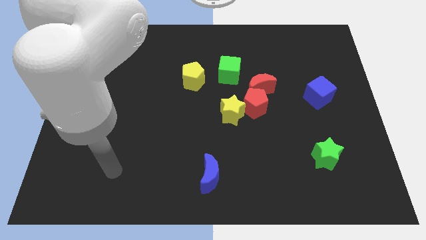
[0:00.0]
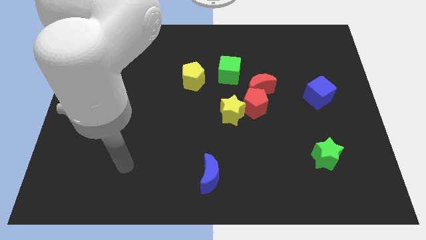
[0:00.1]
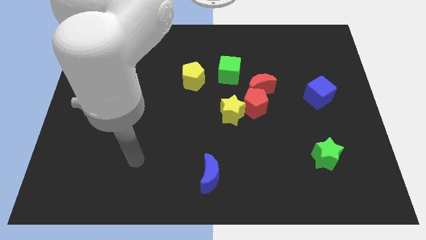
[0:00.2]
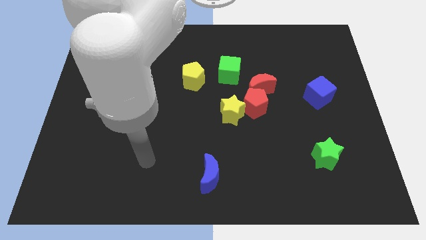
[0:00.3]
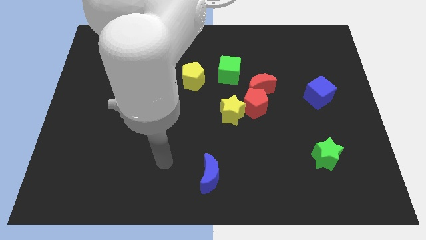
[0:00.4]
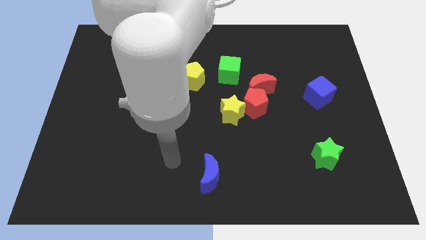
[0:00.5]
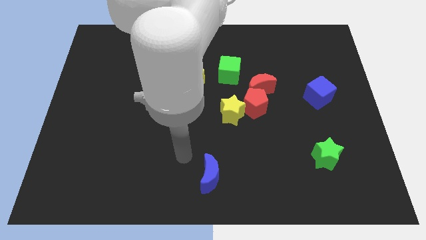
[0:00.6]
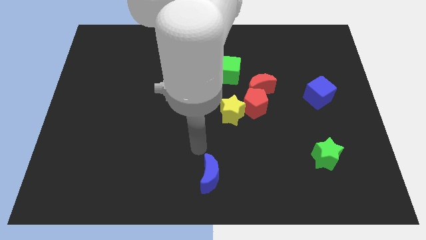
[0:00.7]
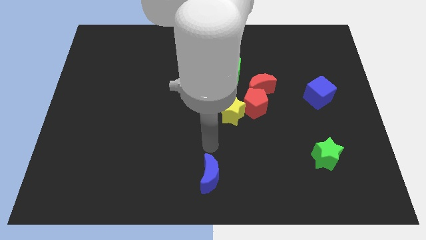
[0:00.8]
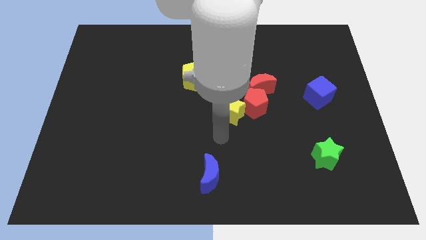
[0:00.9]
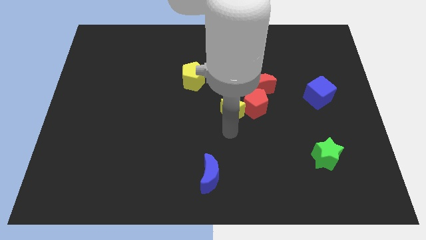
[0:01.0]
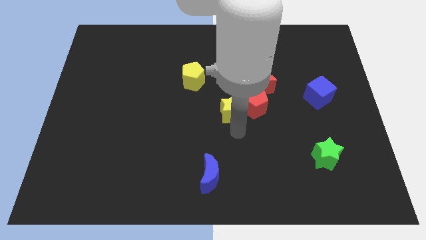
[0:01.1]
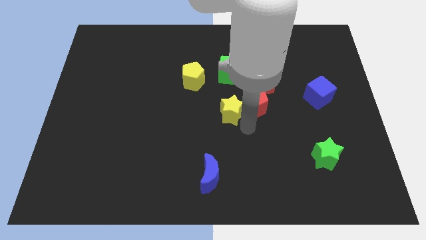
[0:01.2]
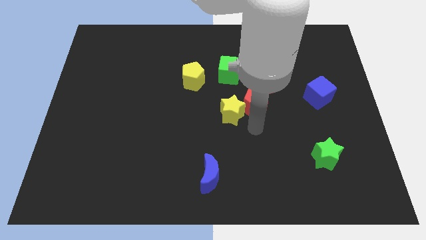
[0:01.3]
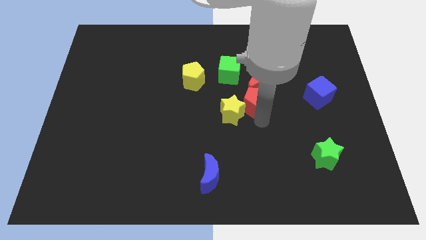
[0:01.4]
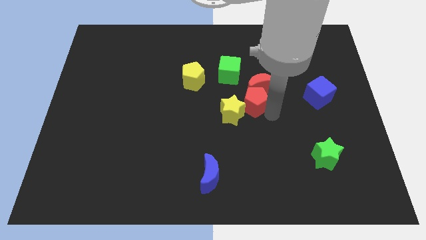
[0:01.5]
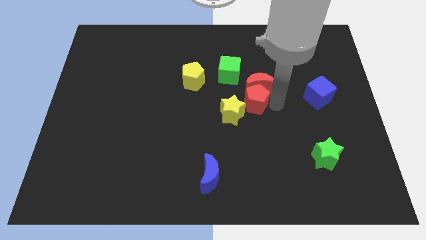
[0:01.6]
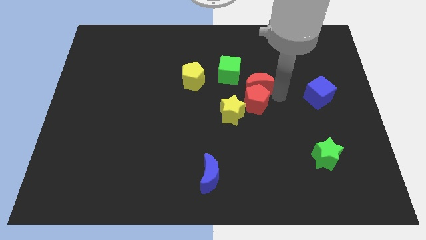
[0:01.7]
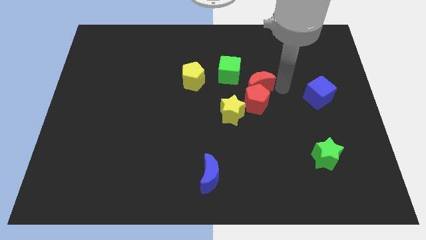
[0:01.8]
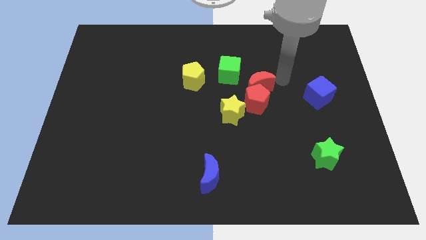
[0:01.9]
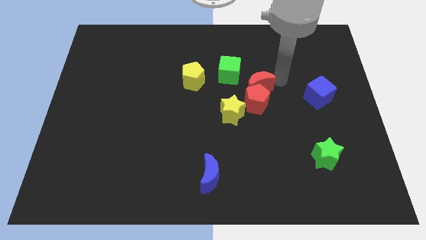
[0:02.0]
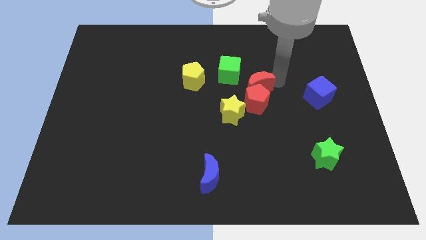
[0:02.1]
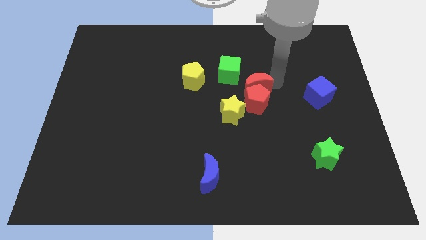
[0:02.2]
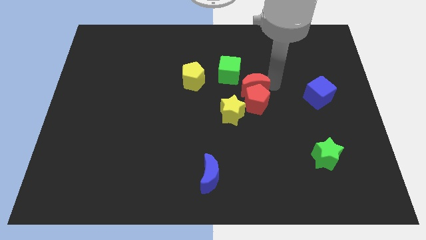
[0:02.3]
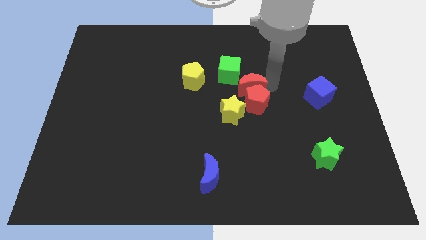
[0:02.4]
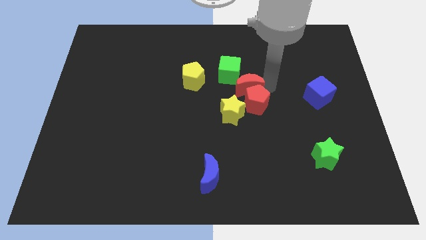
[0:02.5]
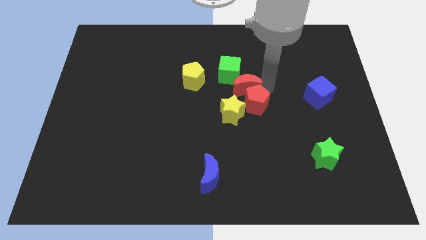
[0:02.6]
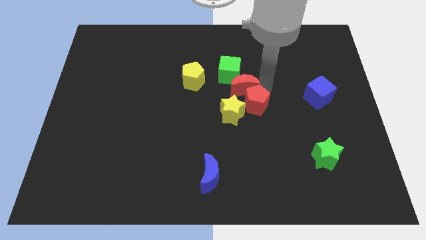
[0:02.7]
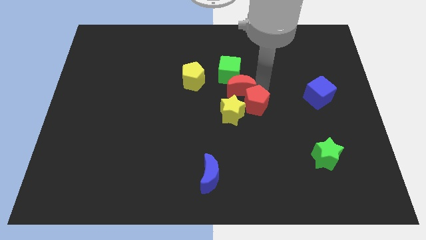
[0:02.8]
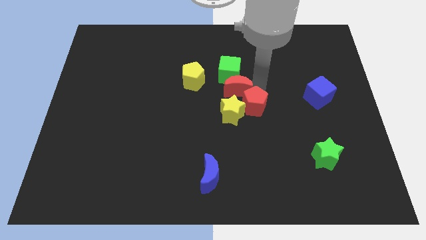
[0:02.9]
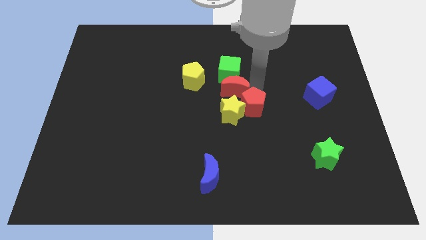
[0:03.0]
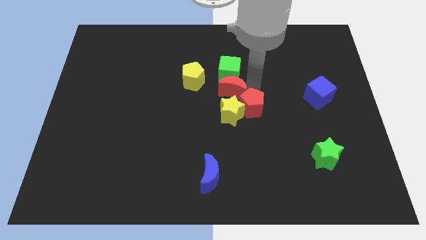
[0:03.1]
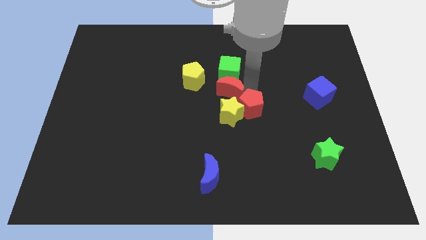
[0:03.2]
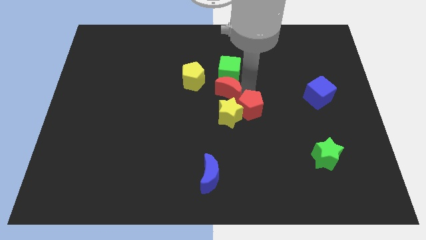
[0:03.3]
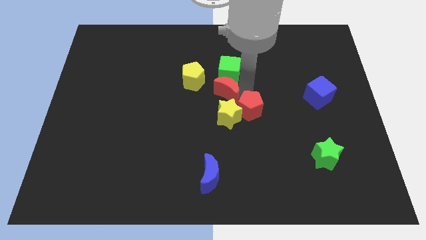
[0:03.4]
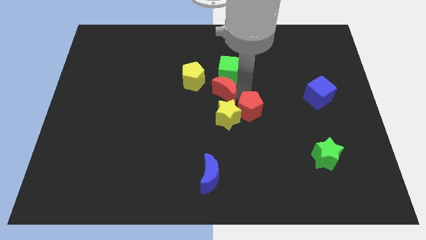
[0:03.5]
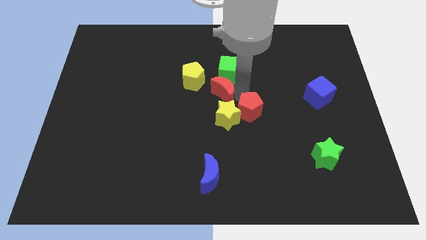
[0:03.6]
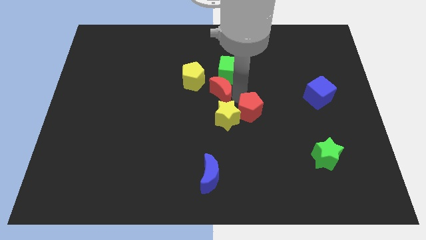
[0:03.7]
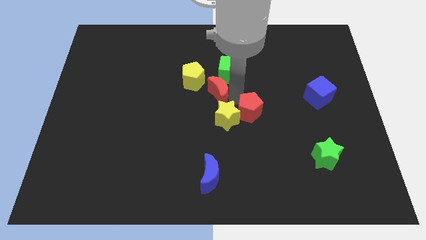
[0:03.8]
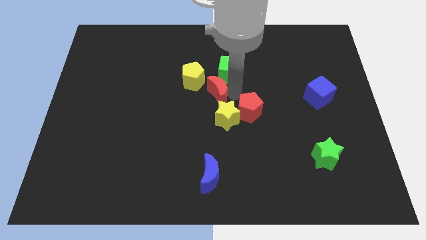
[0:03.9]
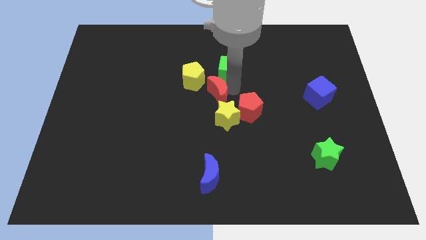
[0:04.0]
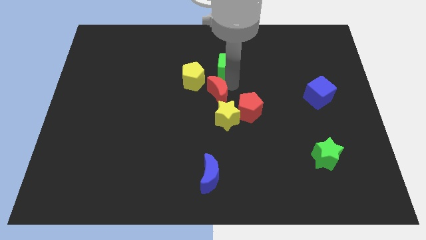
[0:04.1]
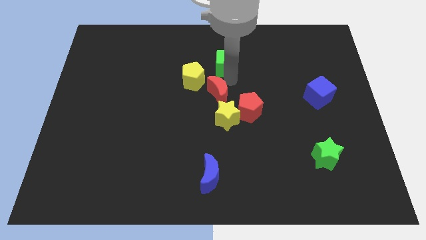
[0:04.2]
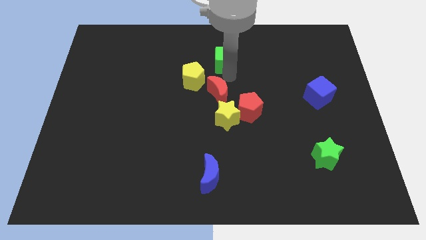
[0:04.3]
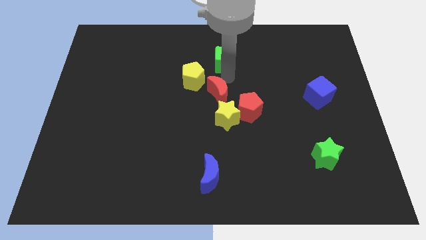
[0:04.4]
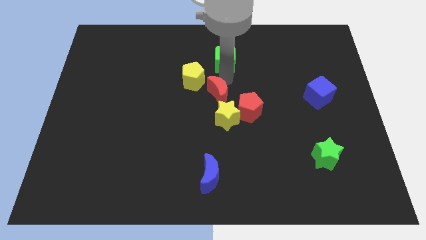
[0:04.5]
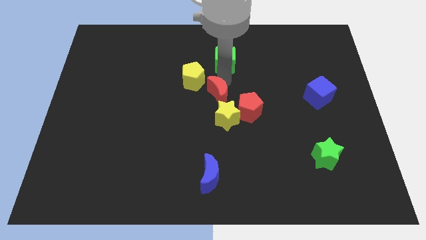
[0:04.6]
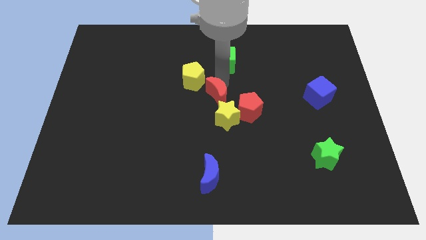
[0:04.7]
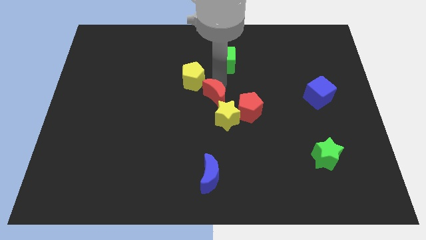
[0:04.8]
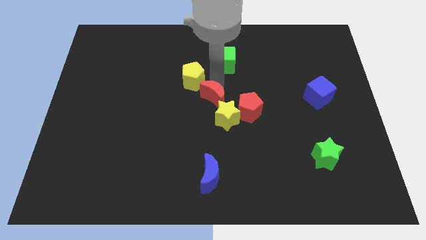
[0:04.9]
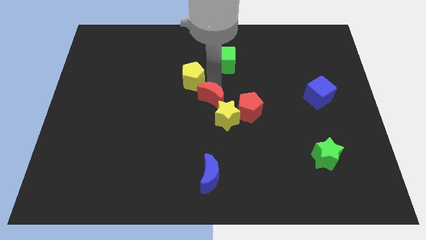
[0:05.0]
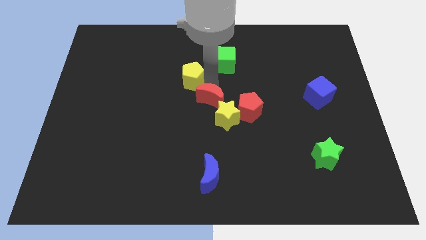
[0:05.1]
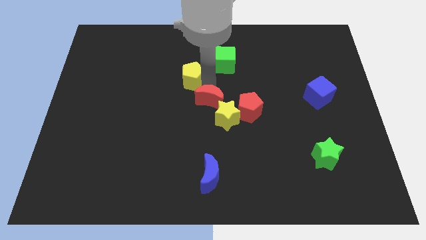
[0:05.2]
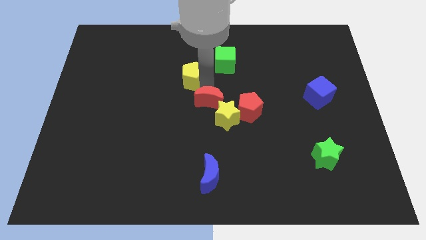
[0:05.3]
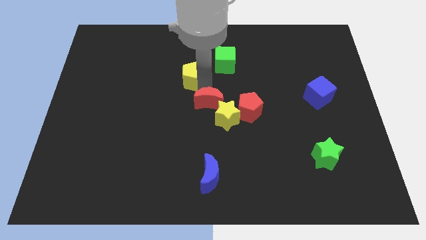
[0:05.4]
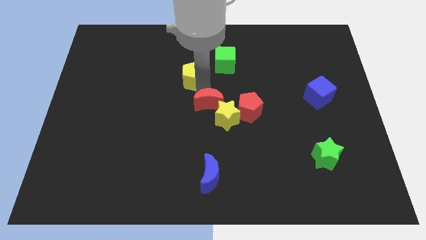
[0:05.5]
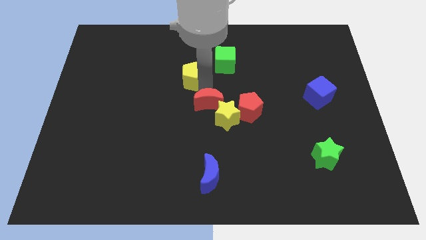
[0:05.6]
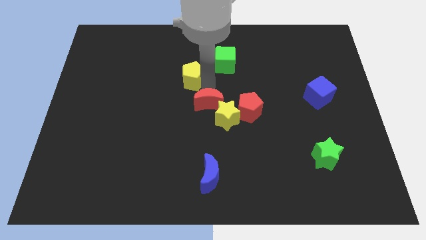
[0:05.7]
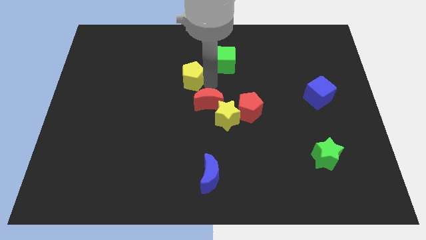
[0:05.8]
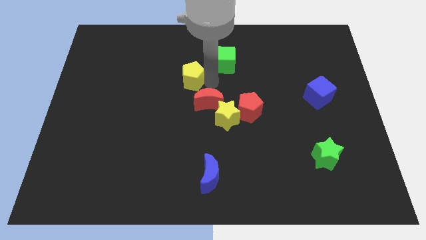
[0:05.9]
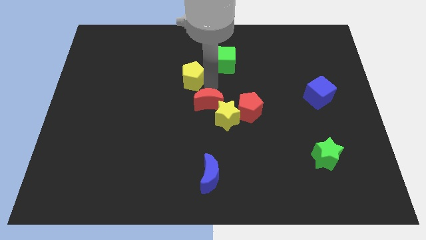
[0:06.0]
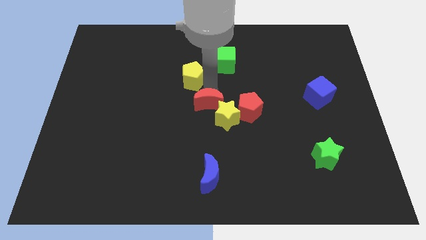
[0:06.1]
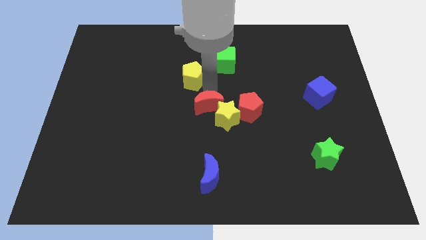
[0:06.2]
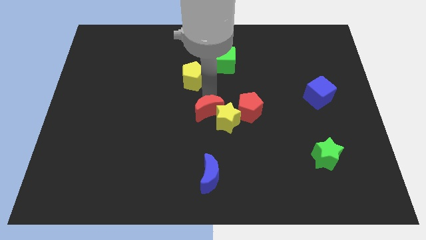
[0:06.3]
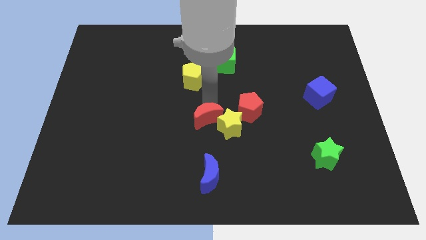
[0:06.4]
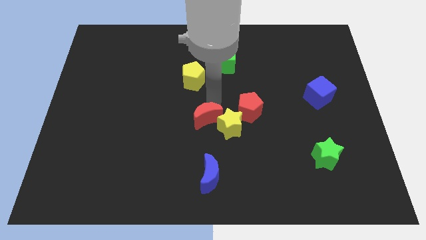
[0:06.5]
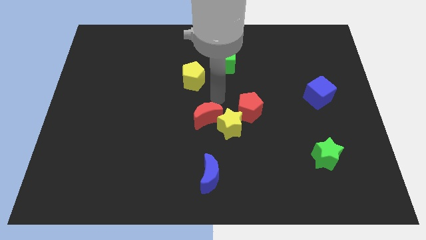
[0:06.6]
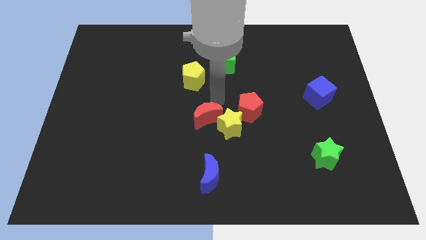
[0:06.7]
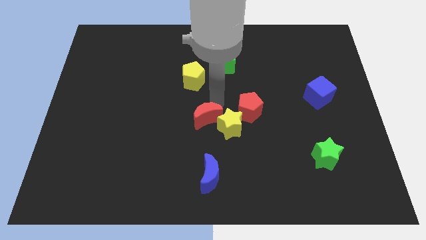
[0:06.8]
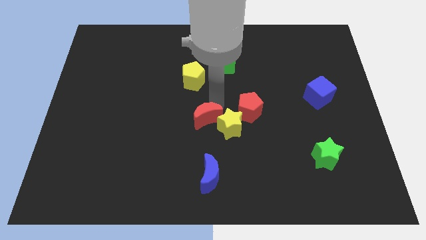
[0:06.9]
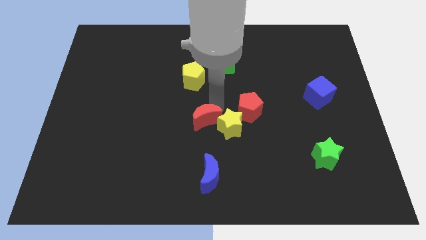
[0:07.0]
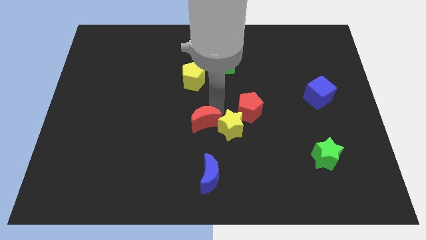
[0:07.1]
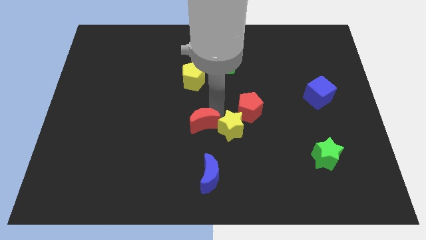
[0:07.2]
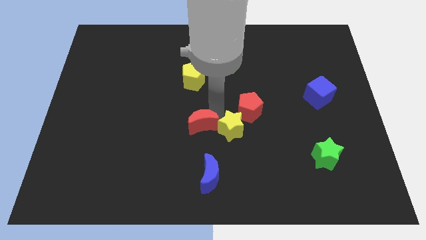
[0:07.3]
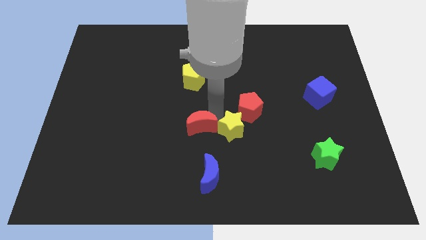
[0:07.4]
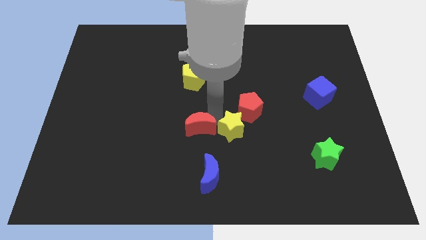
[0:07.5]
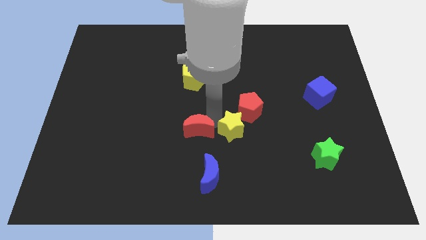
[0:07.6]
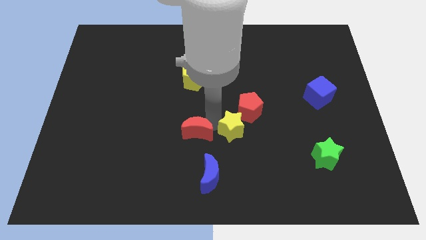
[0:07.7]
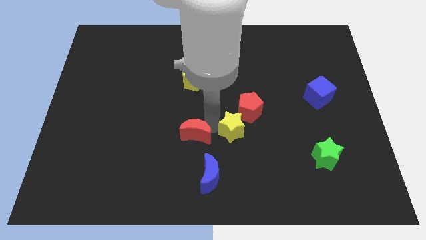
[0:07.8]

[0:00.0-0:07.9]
push the red moon diagonally downwards and to the left

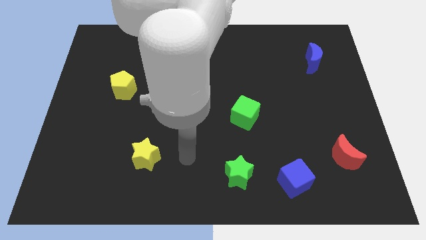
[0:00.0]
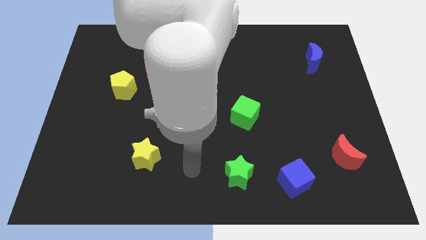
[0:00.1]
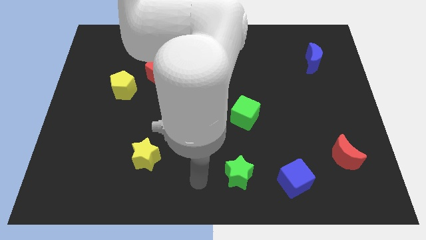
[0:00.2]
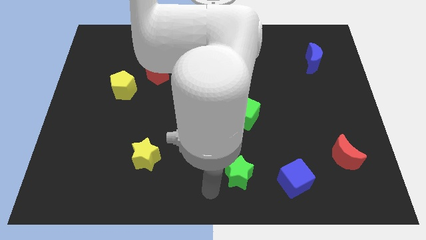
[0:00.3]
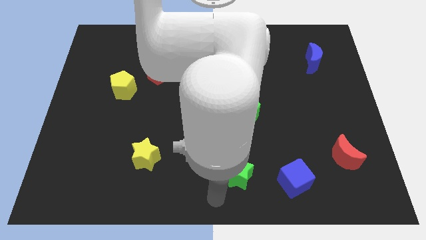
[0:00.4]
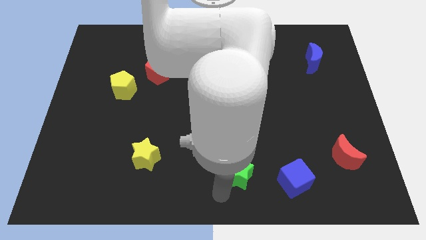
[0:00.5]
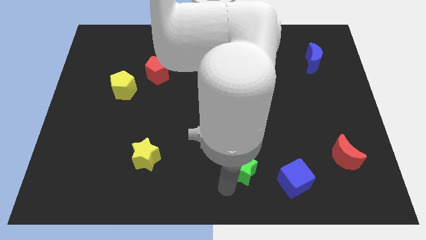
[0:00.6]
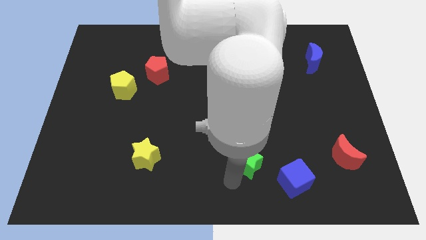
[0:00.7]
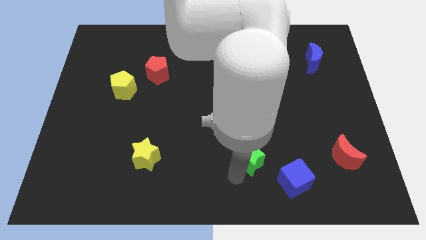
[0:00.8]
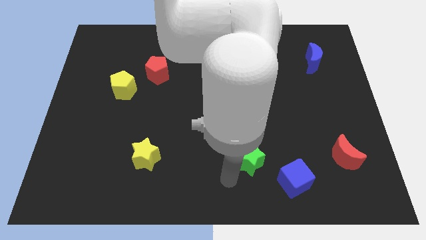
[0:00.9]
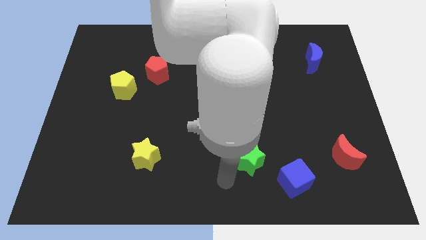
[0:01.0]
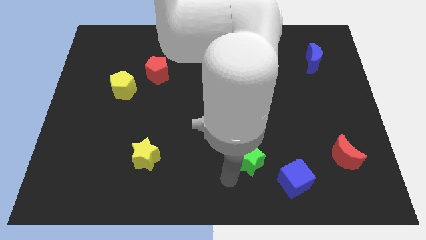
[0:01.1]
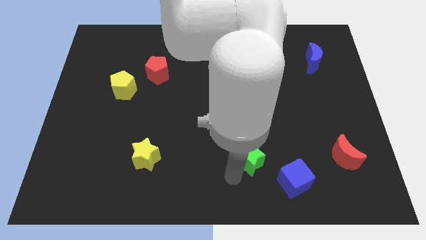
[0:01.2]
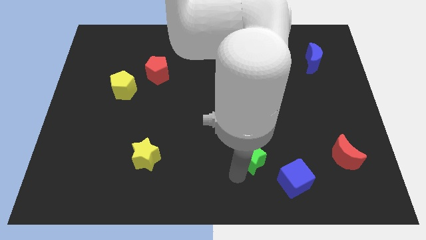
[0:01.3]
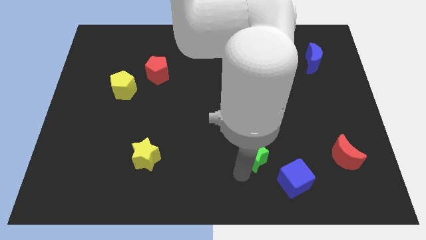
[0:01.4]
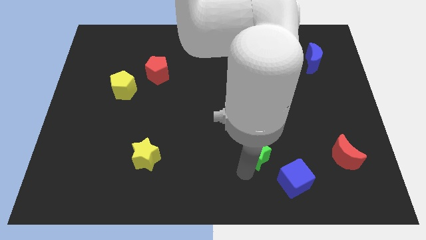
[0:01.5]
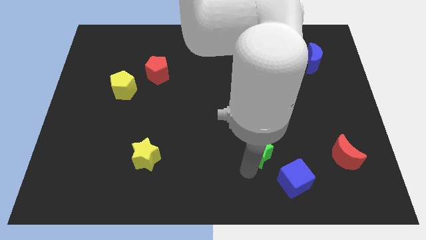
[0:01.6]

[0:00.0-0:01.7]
slightly move the green star upwards and to the right
